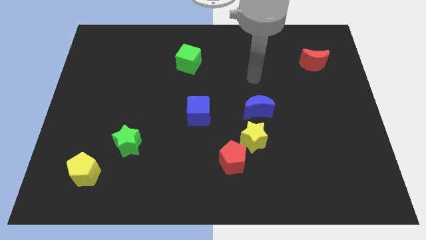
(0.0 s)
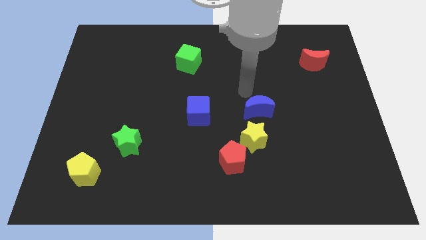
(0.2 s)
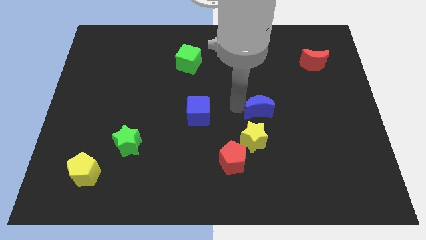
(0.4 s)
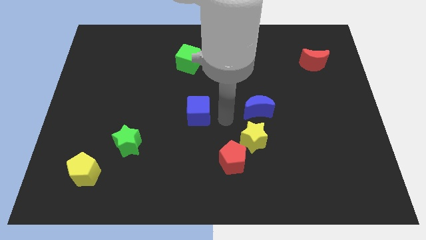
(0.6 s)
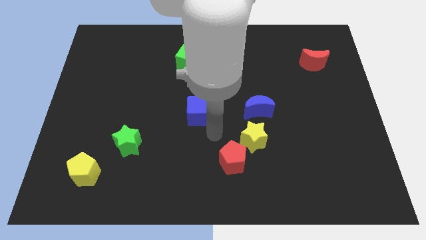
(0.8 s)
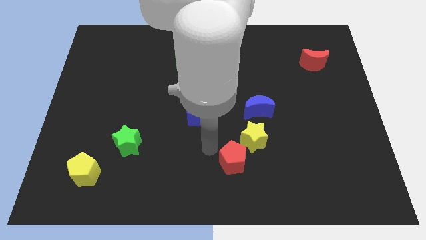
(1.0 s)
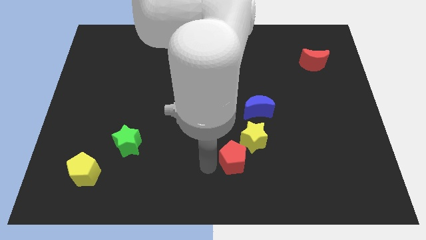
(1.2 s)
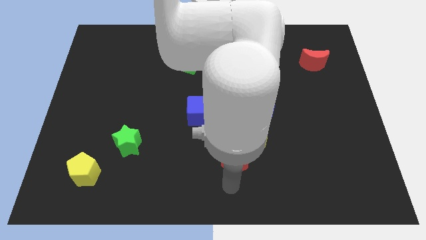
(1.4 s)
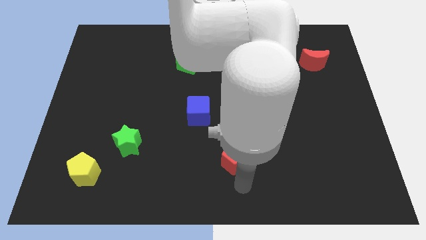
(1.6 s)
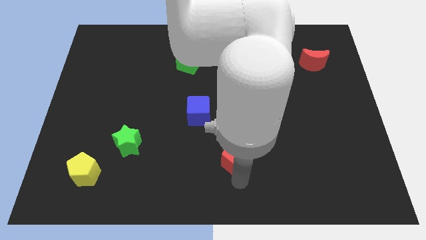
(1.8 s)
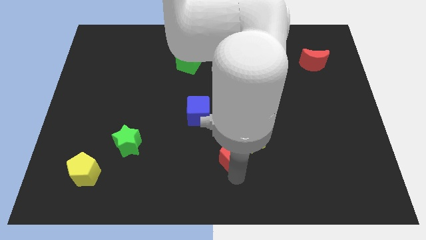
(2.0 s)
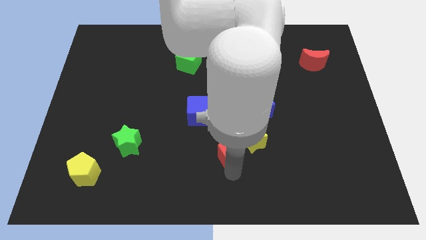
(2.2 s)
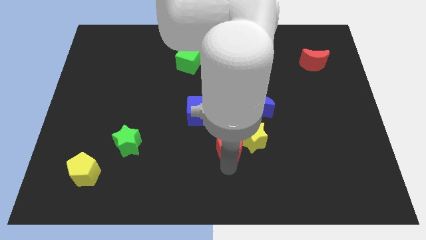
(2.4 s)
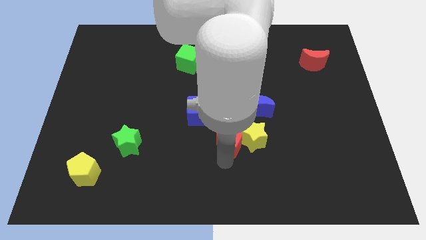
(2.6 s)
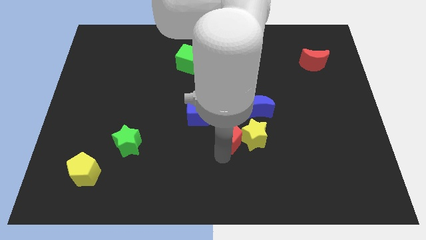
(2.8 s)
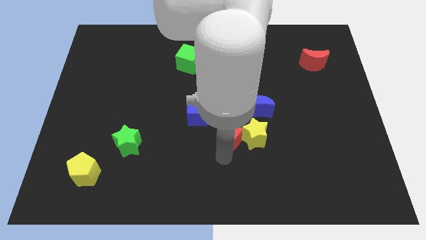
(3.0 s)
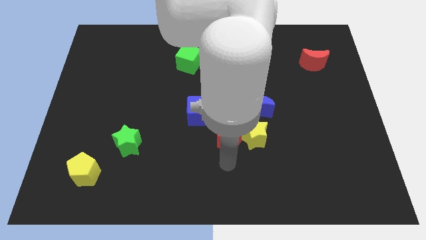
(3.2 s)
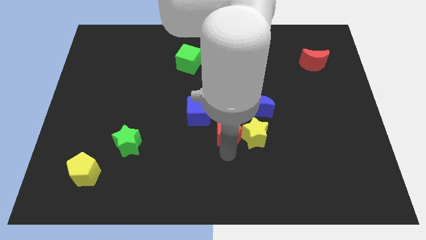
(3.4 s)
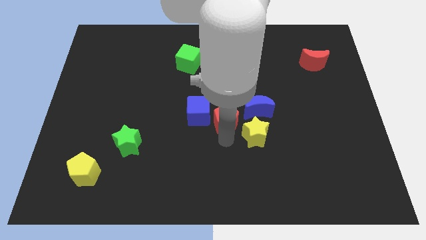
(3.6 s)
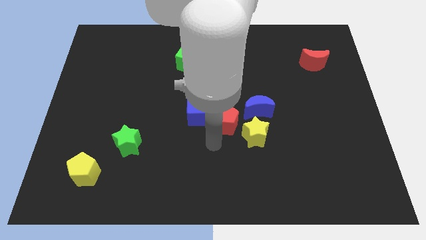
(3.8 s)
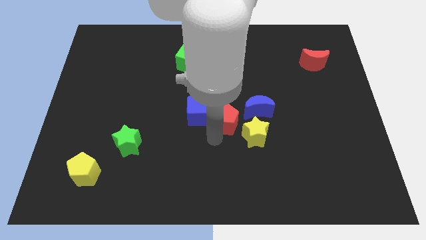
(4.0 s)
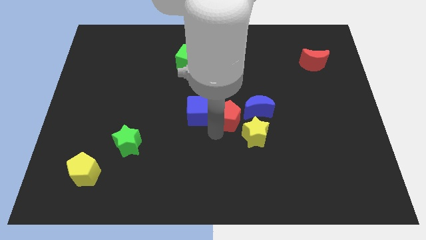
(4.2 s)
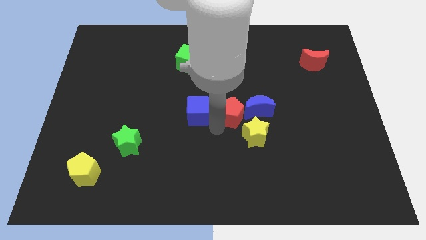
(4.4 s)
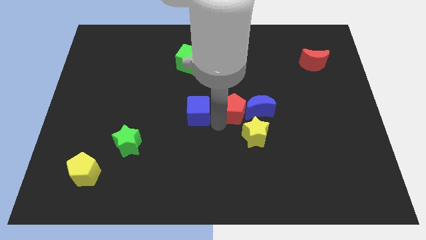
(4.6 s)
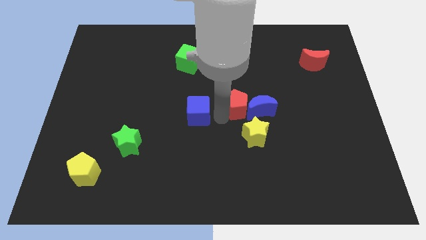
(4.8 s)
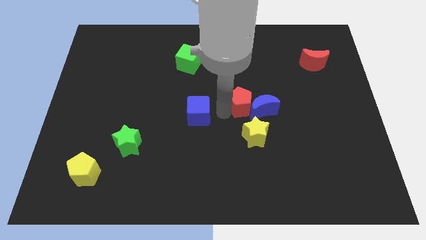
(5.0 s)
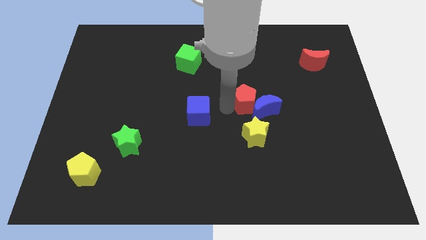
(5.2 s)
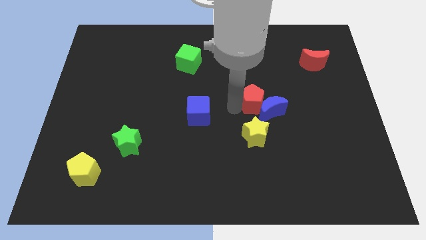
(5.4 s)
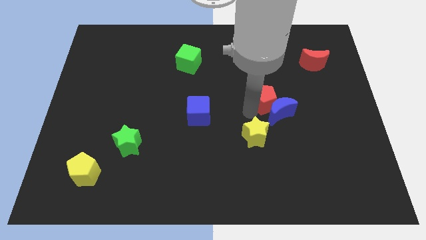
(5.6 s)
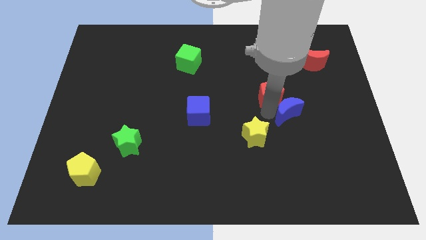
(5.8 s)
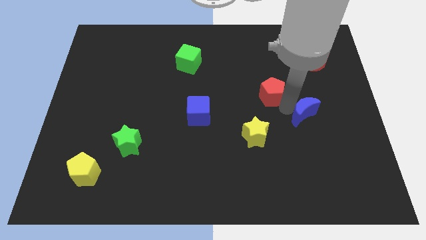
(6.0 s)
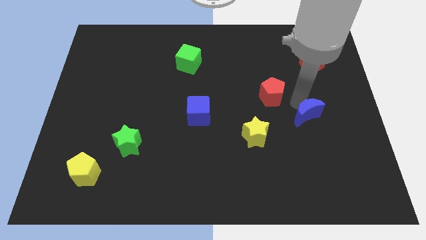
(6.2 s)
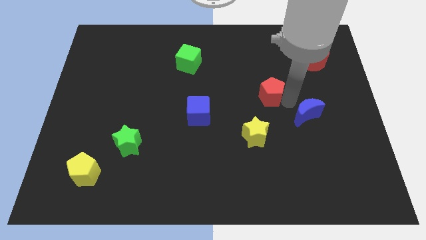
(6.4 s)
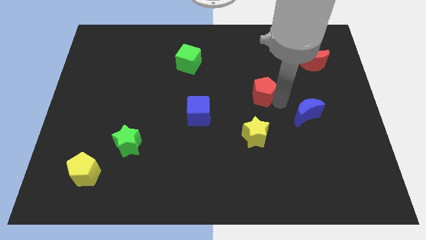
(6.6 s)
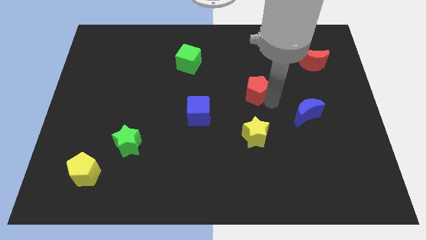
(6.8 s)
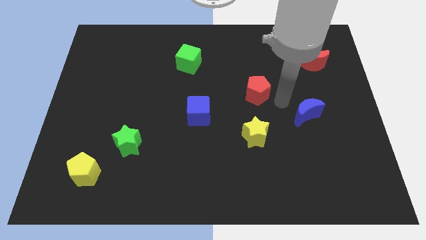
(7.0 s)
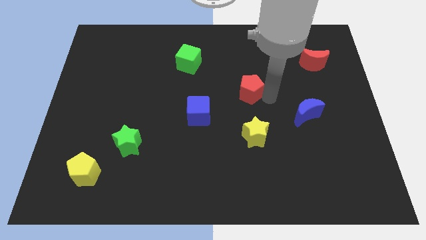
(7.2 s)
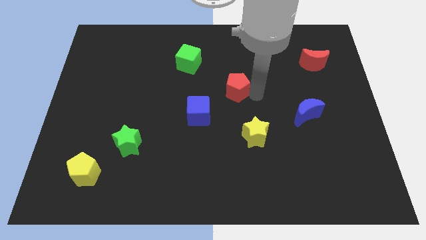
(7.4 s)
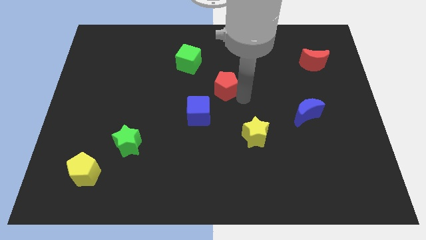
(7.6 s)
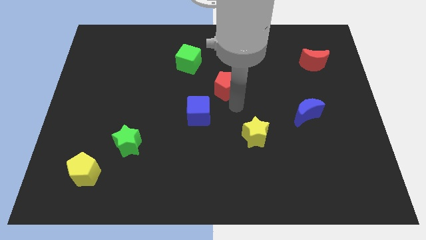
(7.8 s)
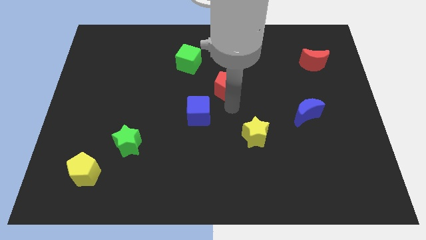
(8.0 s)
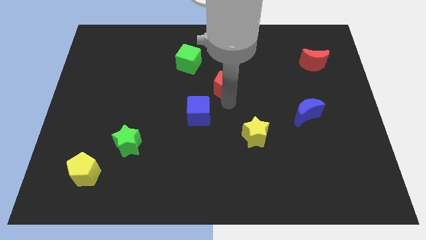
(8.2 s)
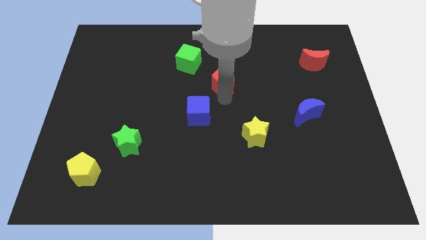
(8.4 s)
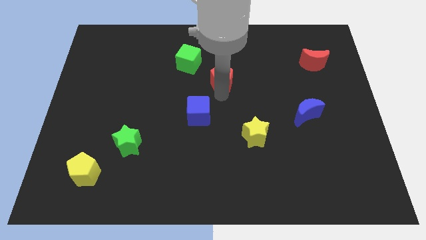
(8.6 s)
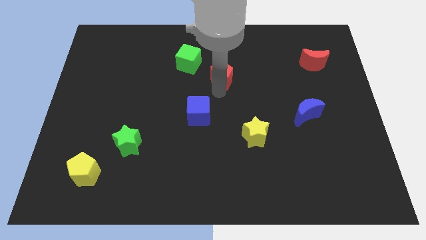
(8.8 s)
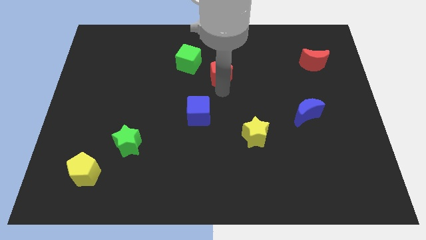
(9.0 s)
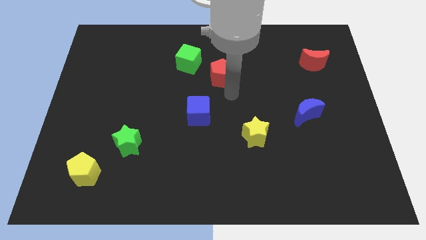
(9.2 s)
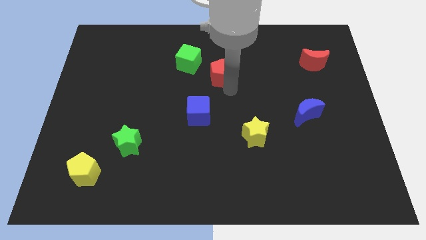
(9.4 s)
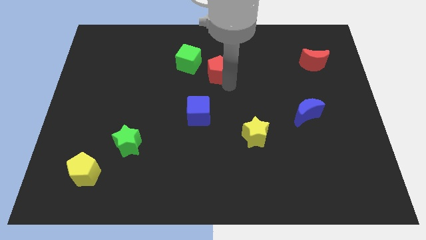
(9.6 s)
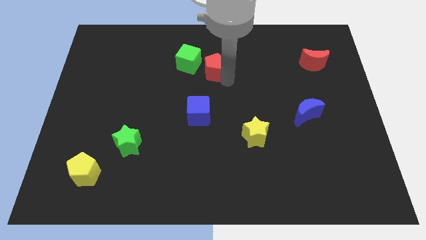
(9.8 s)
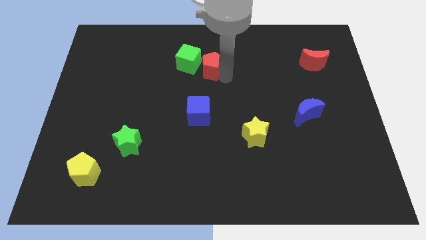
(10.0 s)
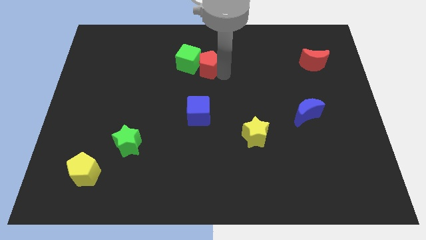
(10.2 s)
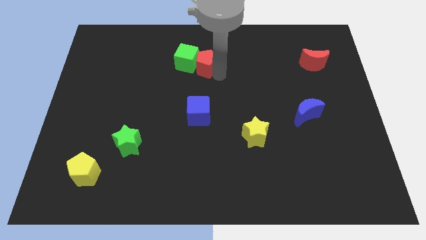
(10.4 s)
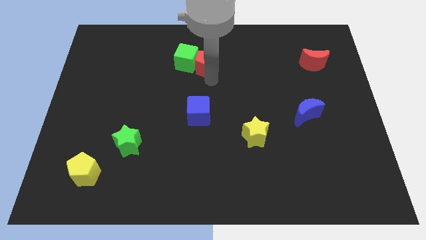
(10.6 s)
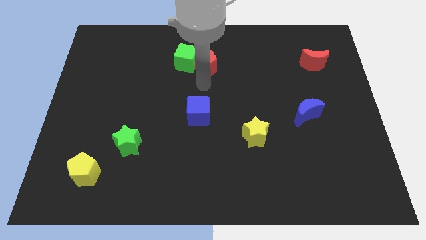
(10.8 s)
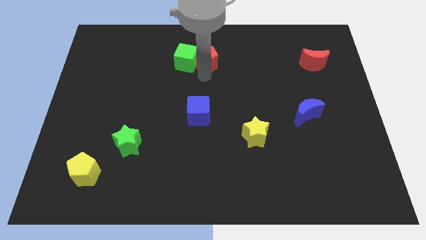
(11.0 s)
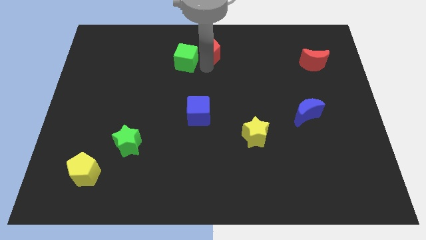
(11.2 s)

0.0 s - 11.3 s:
put the red pentagon to the towards your base
